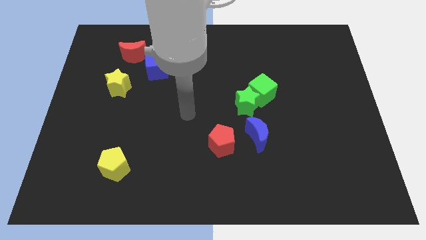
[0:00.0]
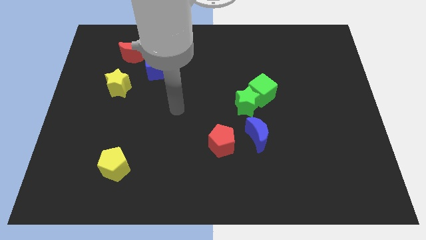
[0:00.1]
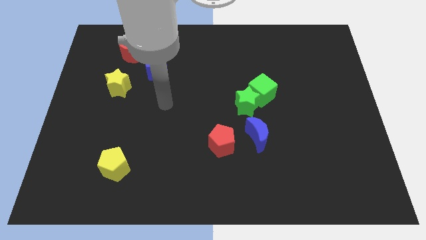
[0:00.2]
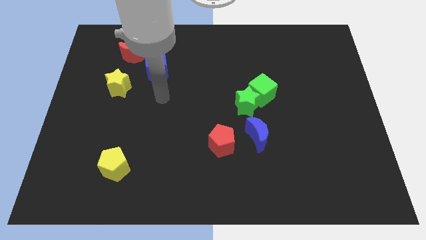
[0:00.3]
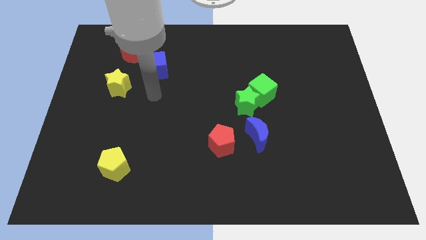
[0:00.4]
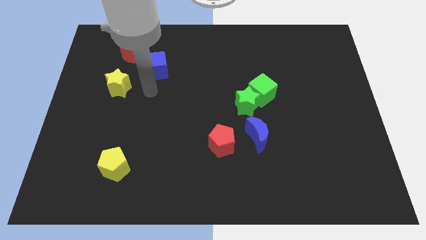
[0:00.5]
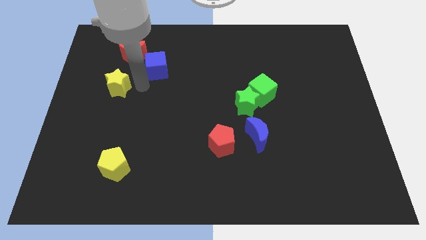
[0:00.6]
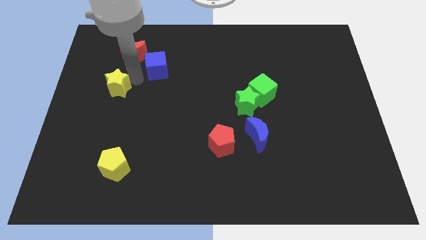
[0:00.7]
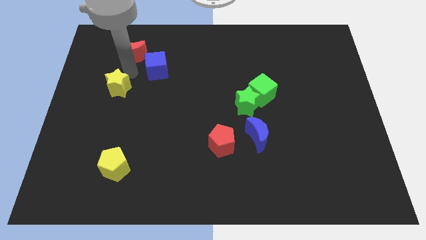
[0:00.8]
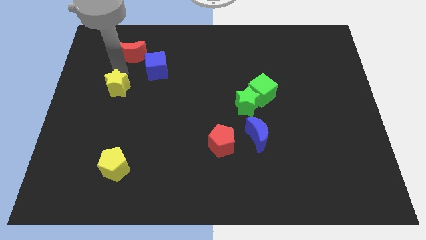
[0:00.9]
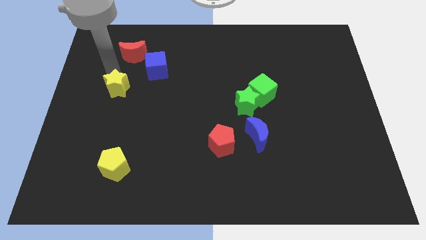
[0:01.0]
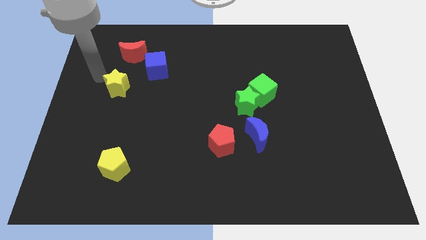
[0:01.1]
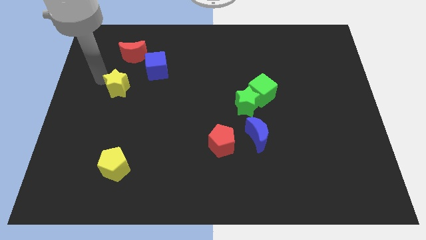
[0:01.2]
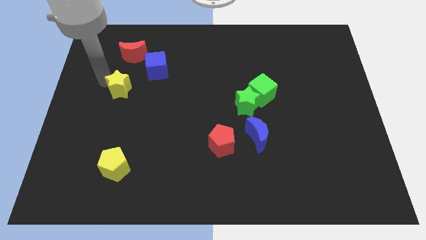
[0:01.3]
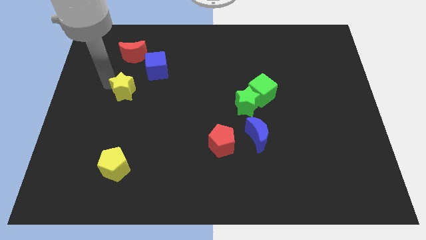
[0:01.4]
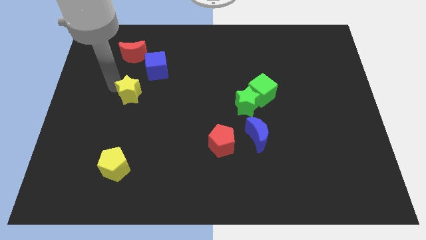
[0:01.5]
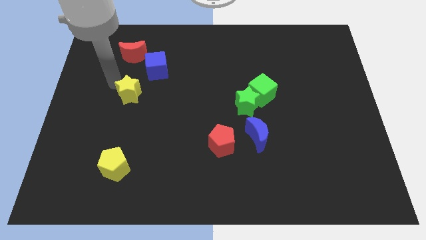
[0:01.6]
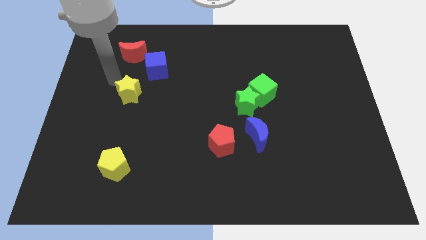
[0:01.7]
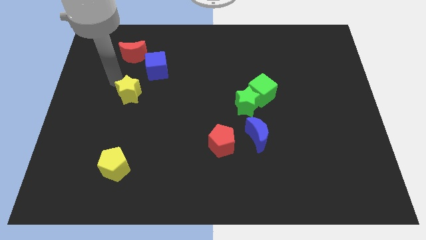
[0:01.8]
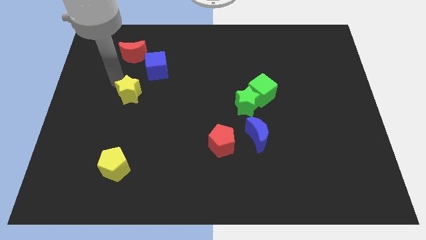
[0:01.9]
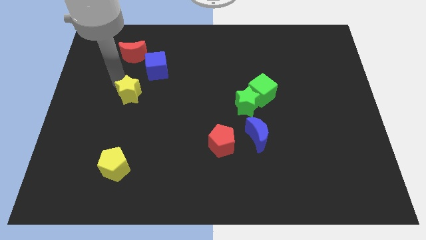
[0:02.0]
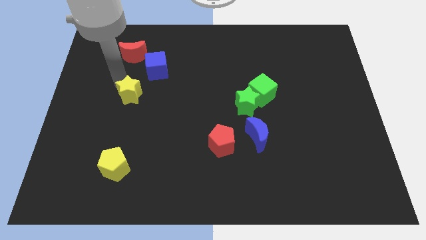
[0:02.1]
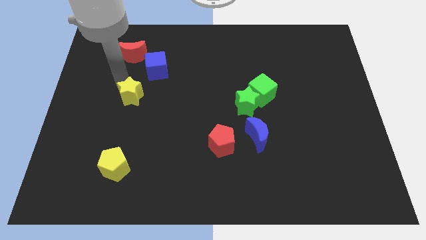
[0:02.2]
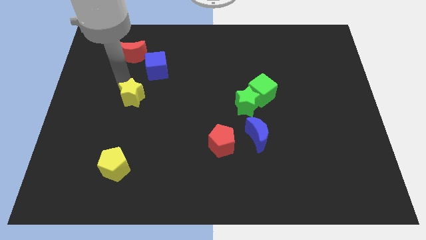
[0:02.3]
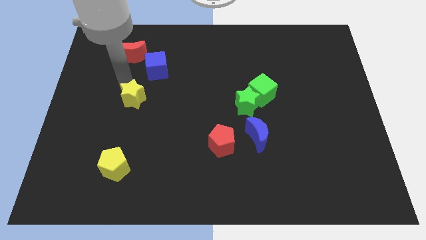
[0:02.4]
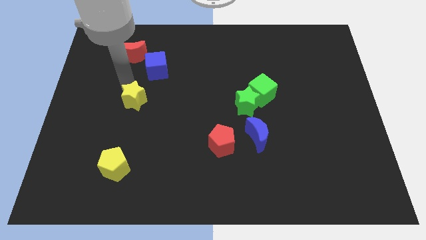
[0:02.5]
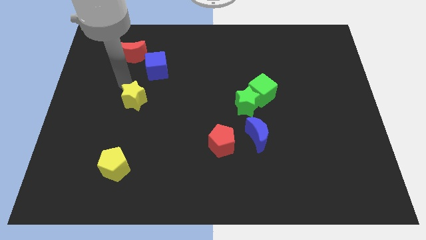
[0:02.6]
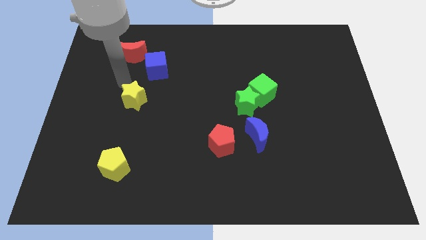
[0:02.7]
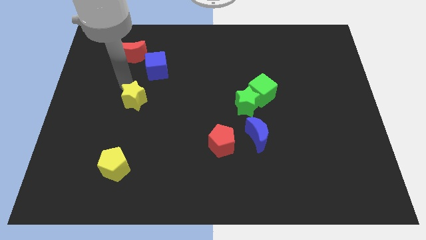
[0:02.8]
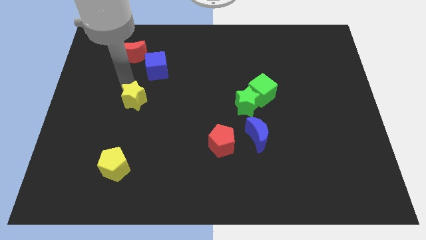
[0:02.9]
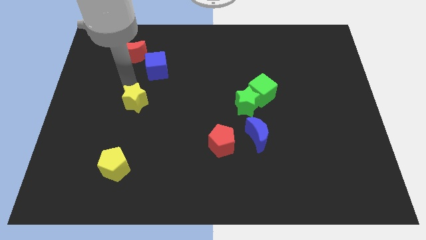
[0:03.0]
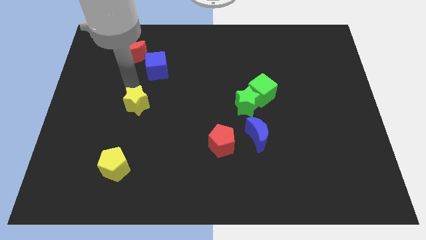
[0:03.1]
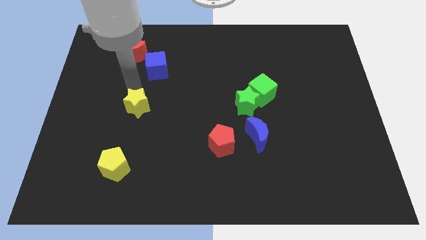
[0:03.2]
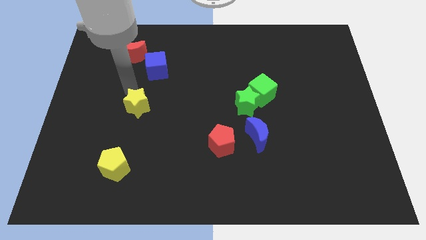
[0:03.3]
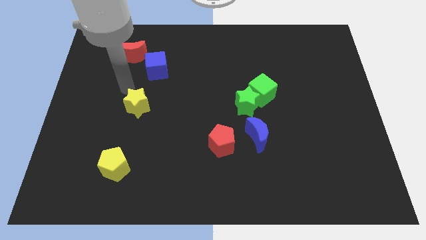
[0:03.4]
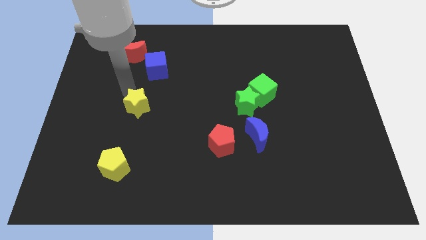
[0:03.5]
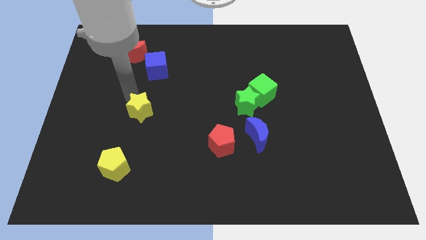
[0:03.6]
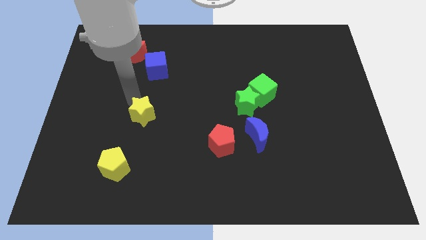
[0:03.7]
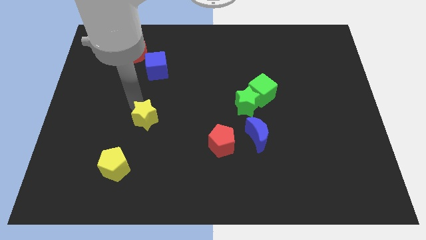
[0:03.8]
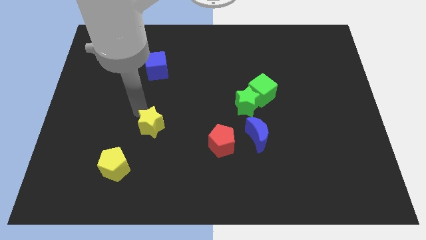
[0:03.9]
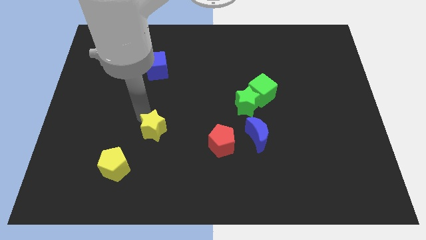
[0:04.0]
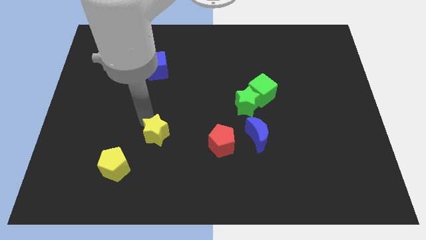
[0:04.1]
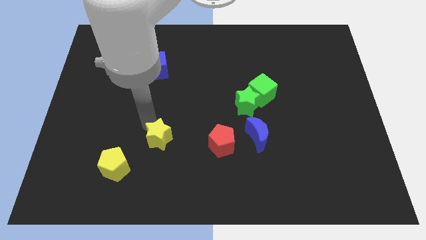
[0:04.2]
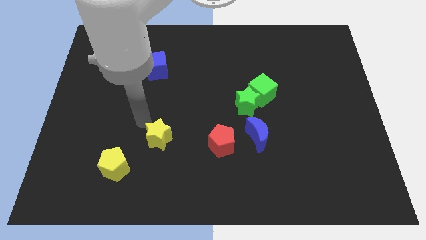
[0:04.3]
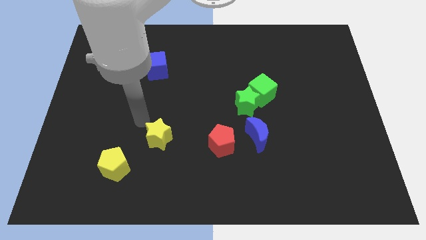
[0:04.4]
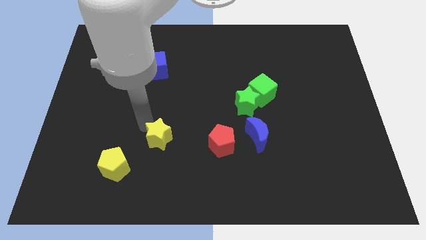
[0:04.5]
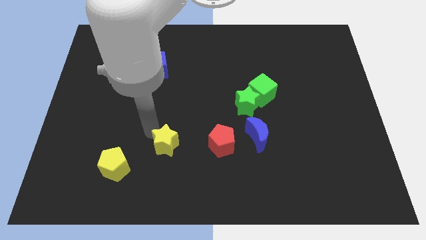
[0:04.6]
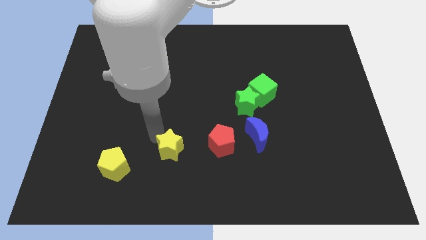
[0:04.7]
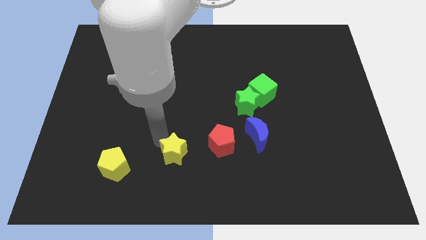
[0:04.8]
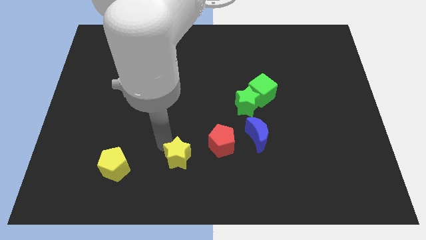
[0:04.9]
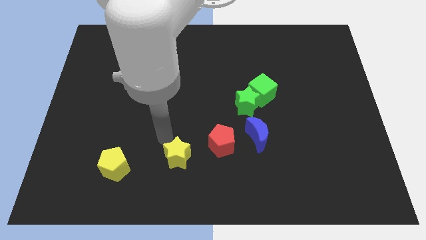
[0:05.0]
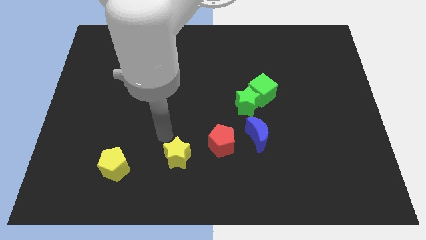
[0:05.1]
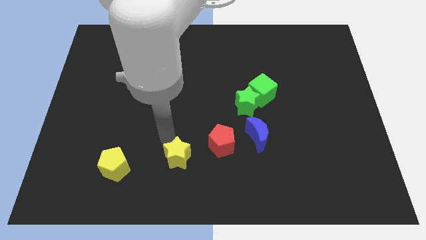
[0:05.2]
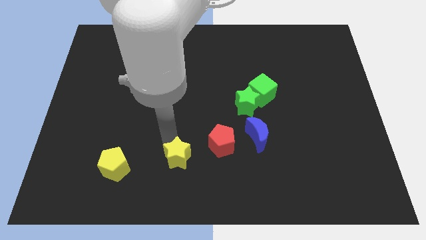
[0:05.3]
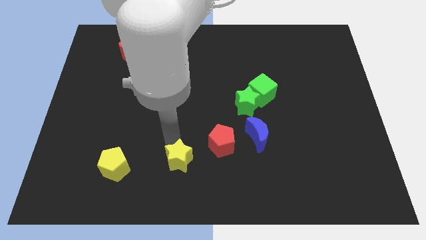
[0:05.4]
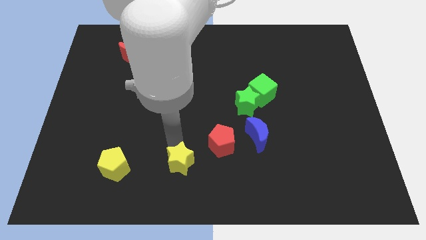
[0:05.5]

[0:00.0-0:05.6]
move the yellow star to the bottom

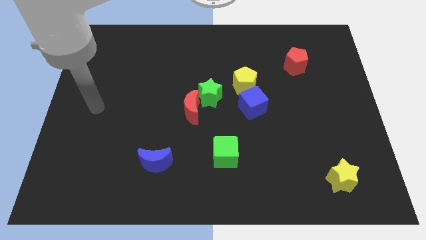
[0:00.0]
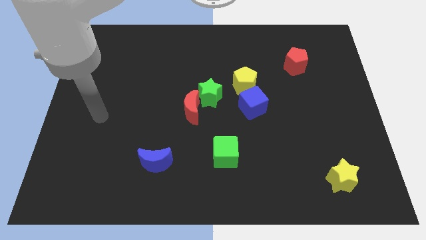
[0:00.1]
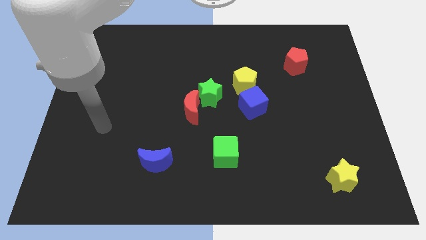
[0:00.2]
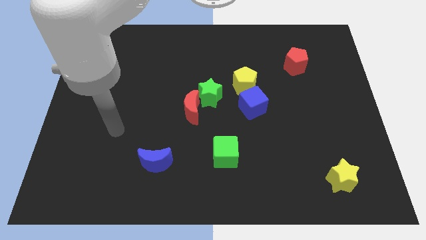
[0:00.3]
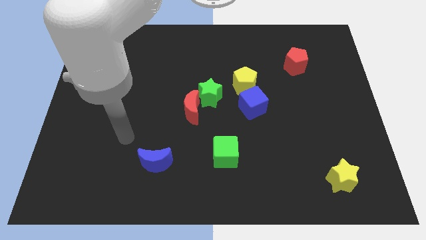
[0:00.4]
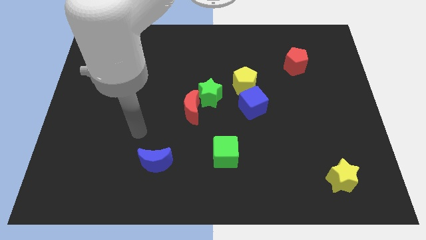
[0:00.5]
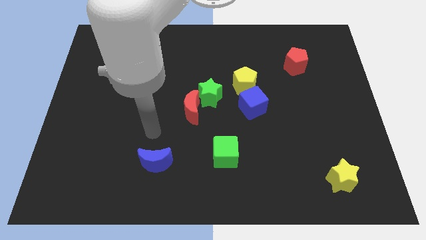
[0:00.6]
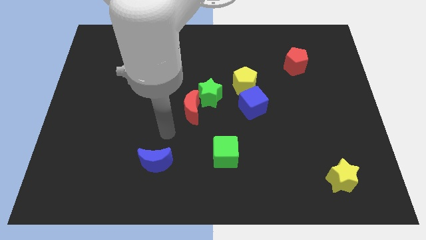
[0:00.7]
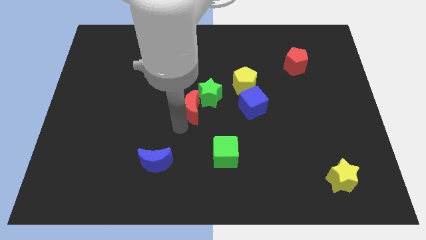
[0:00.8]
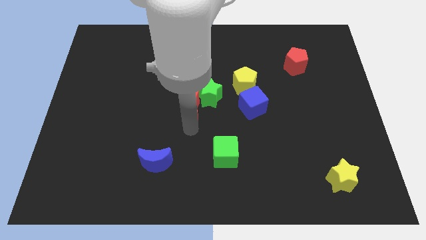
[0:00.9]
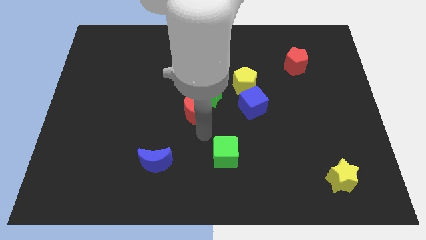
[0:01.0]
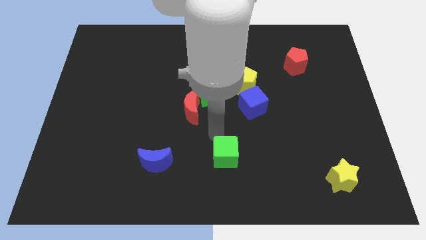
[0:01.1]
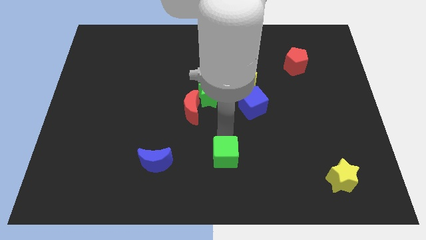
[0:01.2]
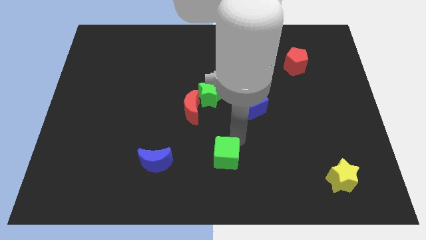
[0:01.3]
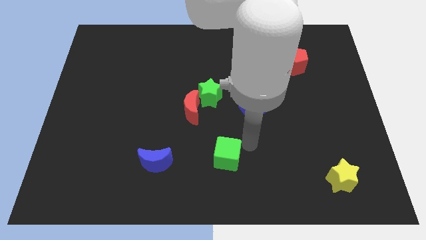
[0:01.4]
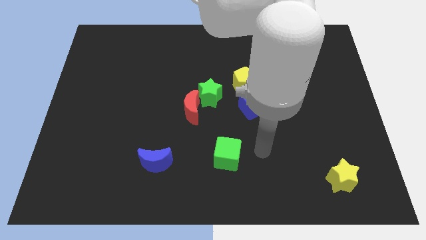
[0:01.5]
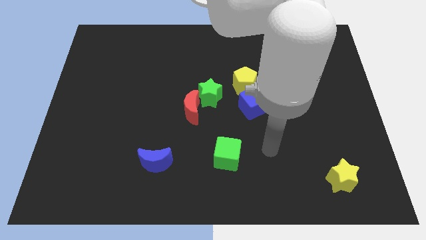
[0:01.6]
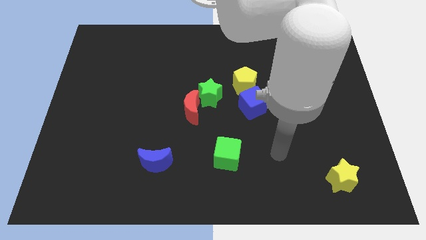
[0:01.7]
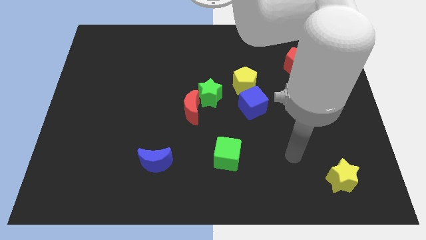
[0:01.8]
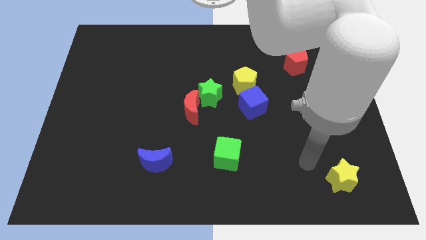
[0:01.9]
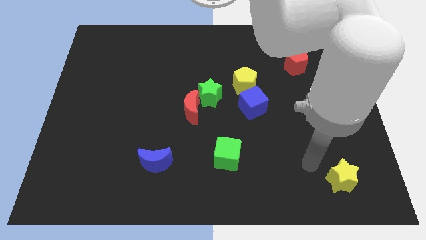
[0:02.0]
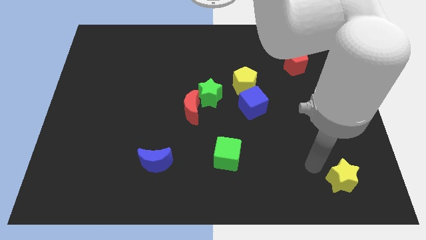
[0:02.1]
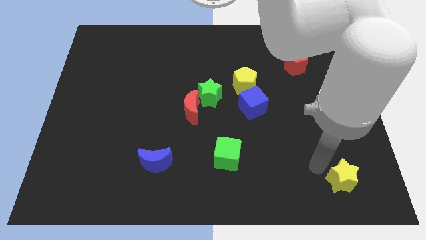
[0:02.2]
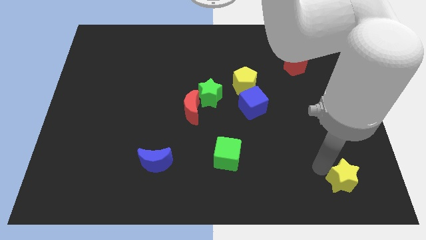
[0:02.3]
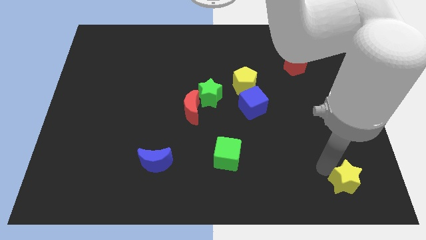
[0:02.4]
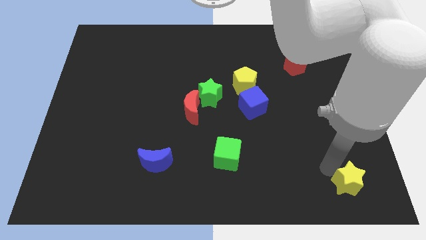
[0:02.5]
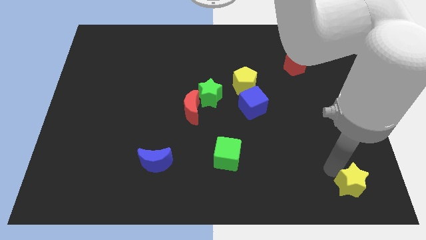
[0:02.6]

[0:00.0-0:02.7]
put the yellow star to the bottom right of the board
